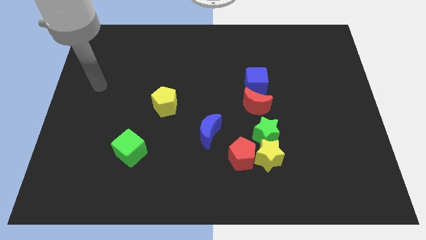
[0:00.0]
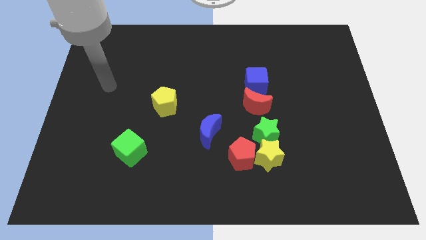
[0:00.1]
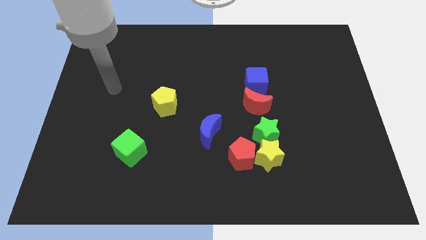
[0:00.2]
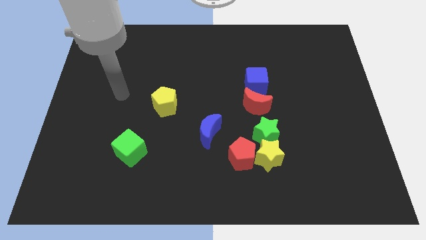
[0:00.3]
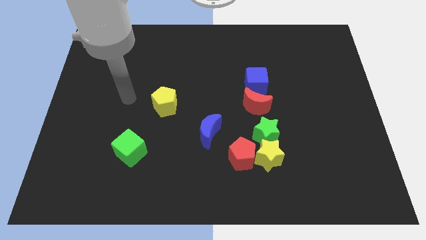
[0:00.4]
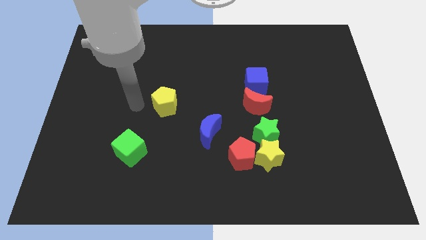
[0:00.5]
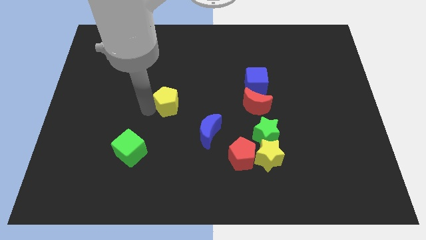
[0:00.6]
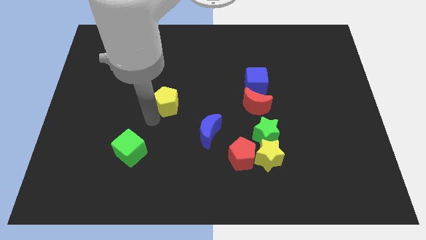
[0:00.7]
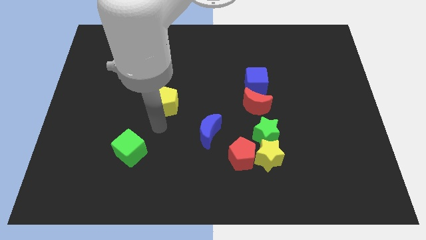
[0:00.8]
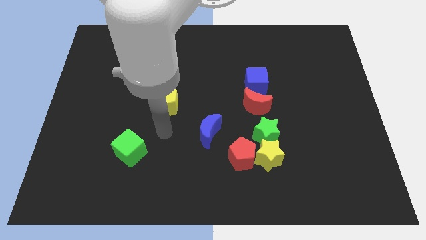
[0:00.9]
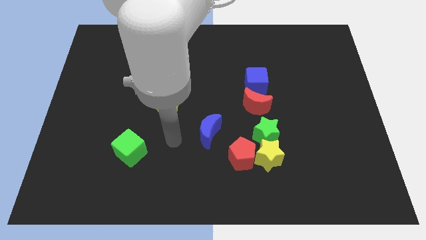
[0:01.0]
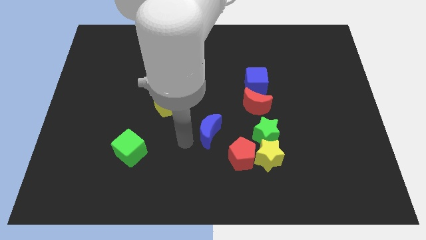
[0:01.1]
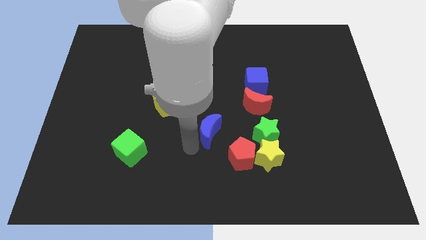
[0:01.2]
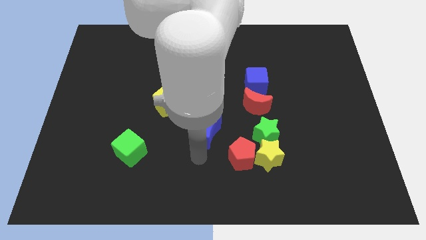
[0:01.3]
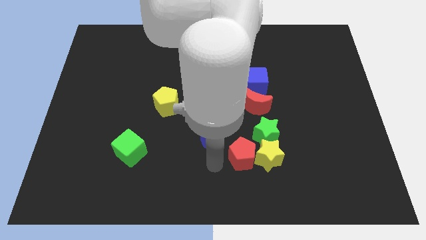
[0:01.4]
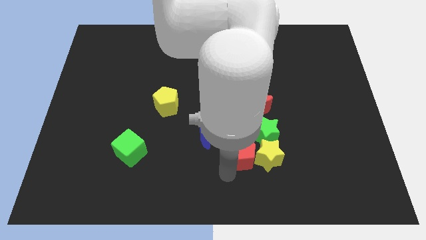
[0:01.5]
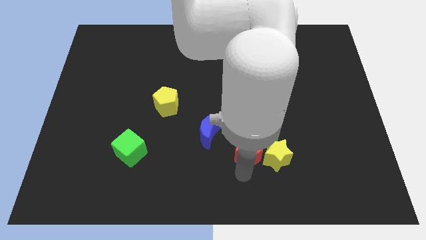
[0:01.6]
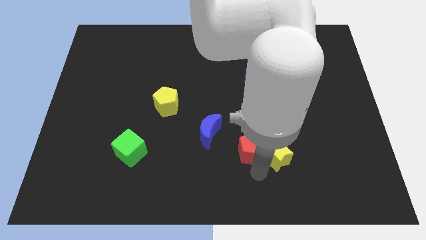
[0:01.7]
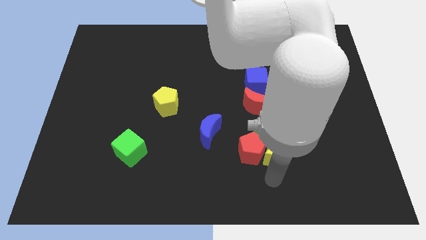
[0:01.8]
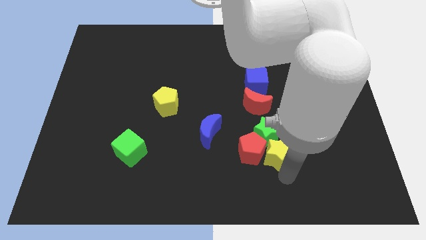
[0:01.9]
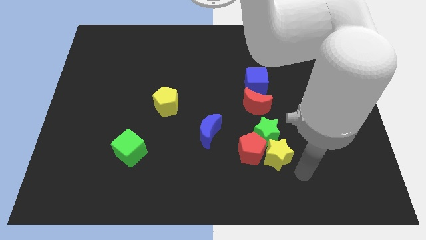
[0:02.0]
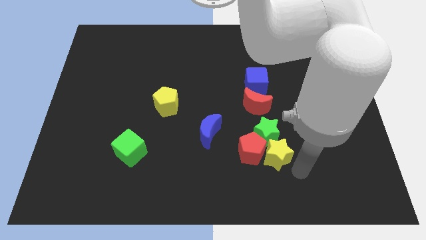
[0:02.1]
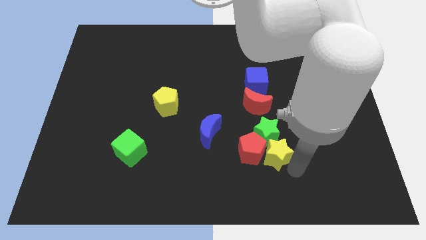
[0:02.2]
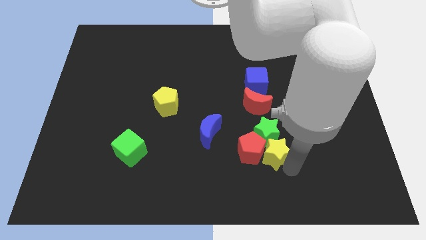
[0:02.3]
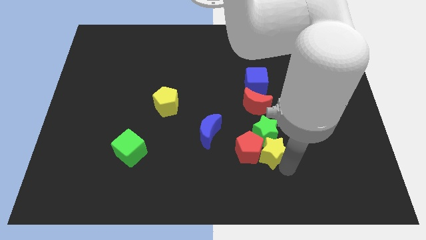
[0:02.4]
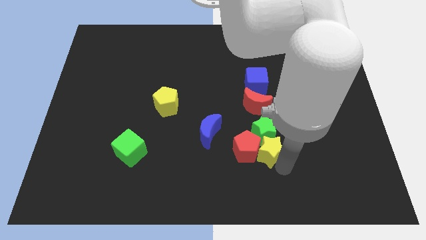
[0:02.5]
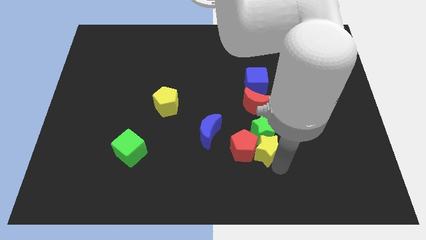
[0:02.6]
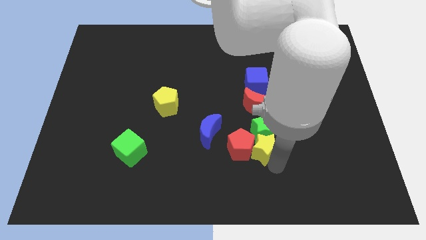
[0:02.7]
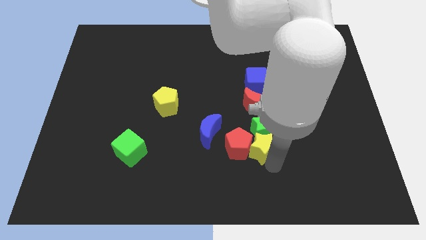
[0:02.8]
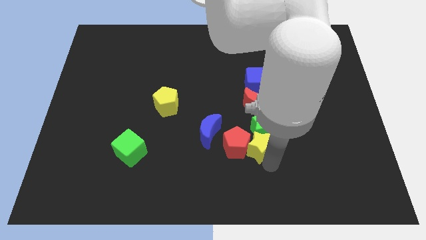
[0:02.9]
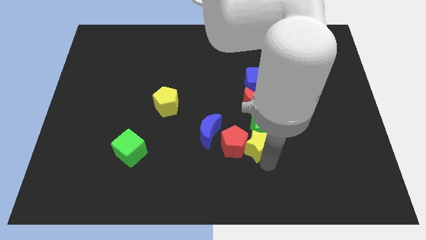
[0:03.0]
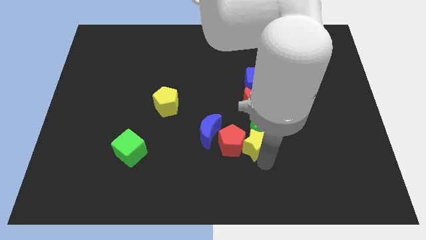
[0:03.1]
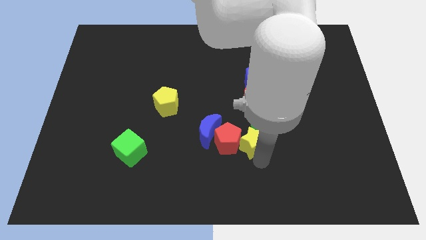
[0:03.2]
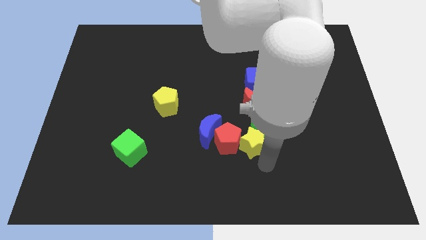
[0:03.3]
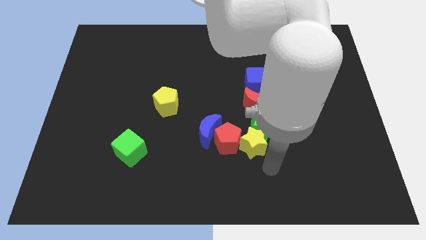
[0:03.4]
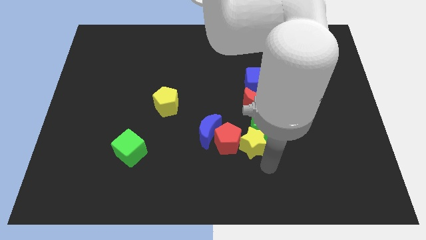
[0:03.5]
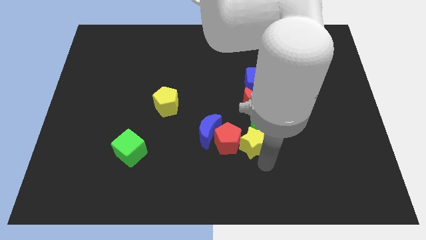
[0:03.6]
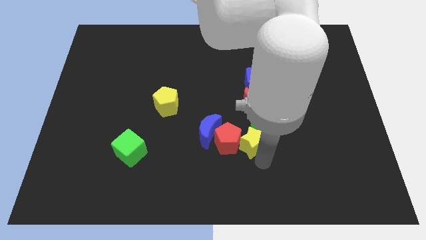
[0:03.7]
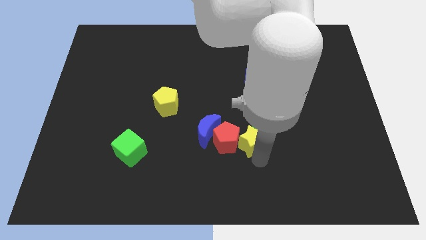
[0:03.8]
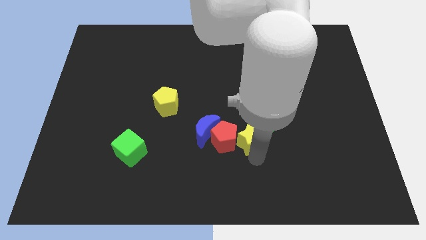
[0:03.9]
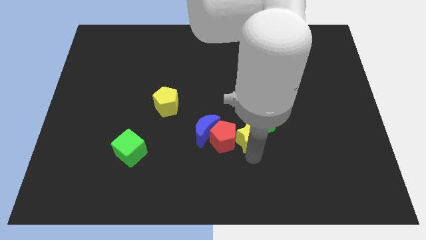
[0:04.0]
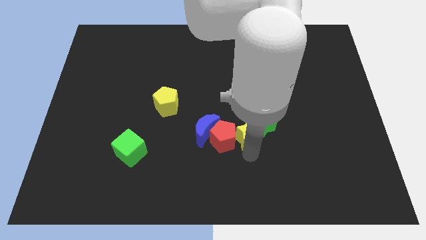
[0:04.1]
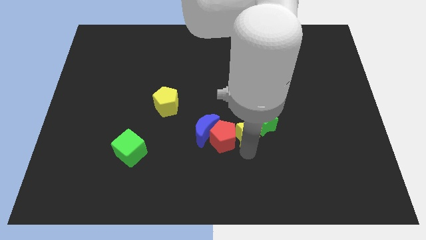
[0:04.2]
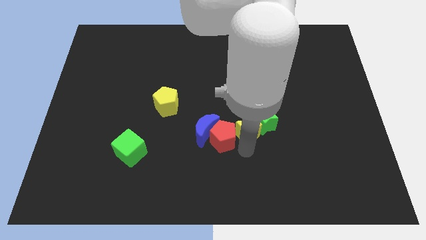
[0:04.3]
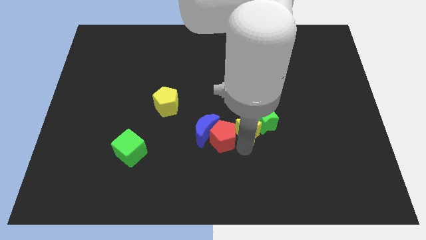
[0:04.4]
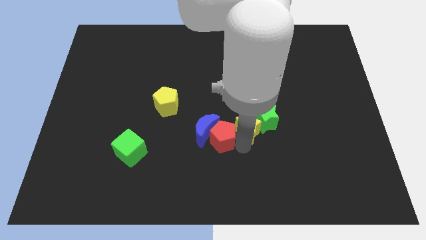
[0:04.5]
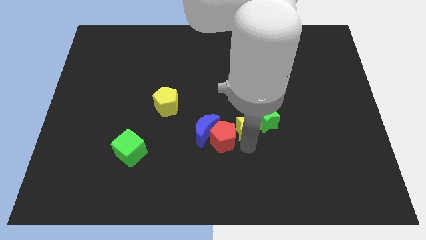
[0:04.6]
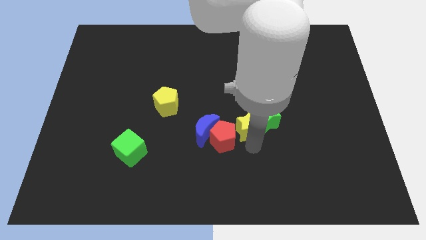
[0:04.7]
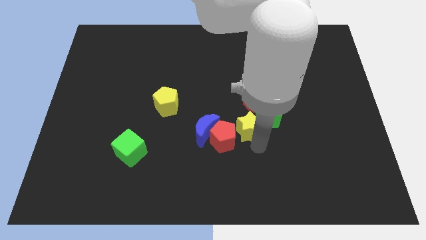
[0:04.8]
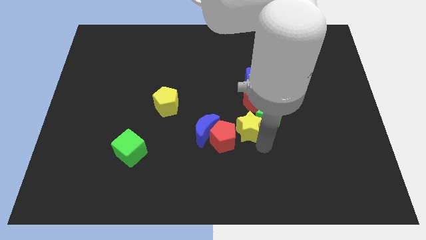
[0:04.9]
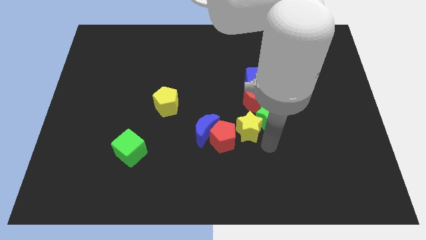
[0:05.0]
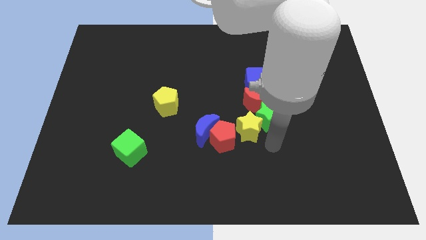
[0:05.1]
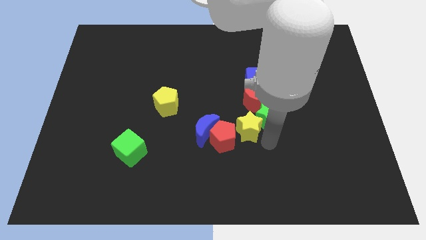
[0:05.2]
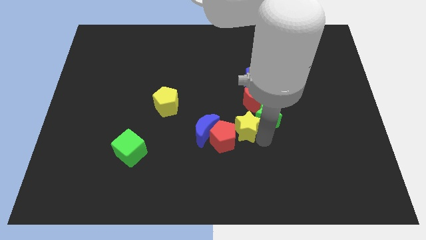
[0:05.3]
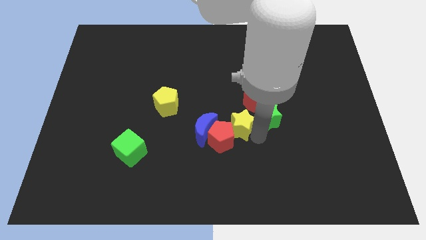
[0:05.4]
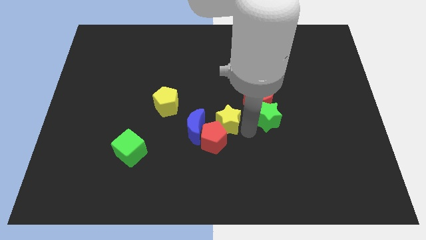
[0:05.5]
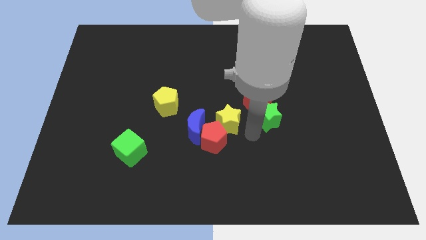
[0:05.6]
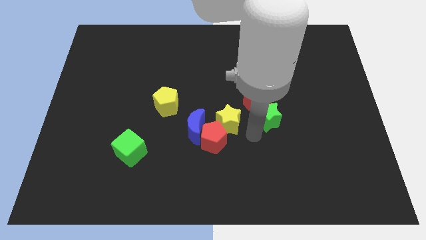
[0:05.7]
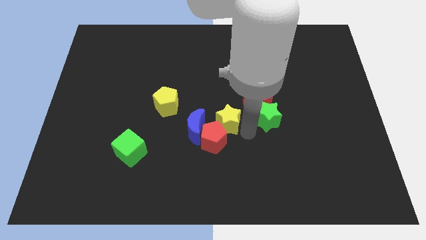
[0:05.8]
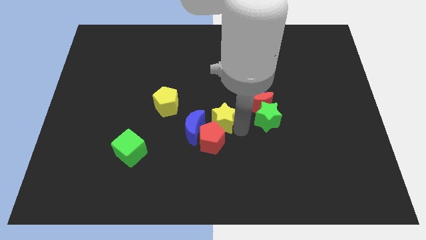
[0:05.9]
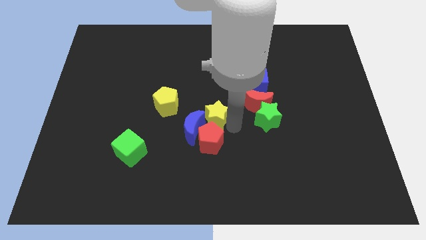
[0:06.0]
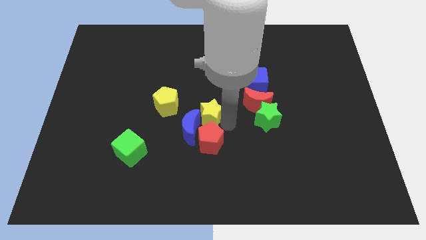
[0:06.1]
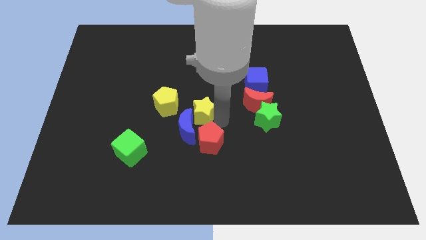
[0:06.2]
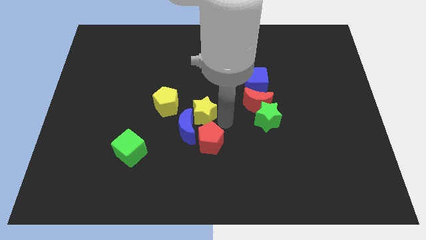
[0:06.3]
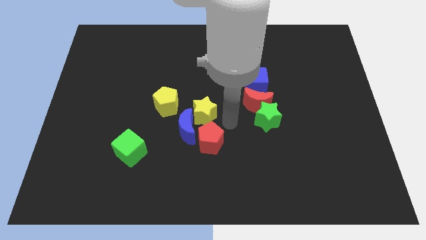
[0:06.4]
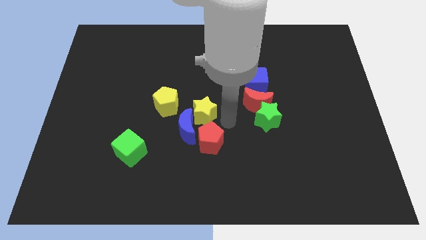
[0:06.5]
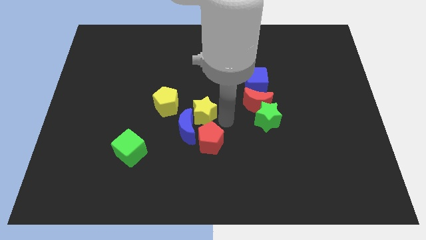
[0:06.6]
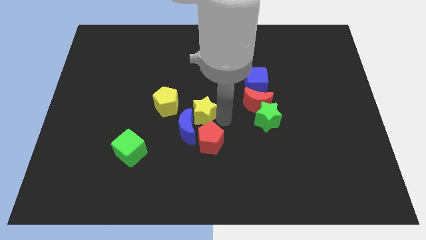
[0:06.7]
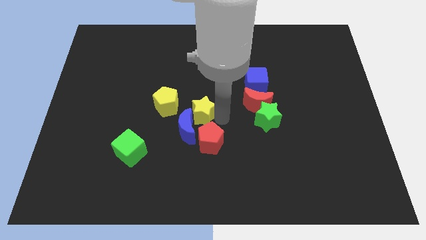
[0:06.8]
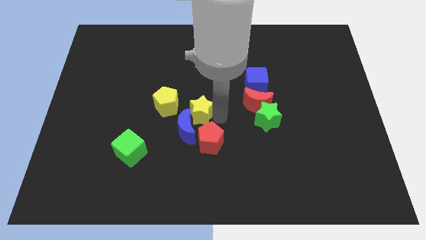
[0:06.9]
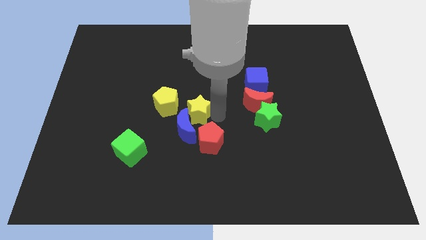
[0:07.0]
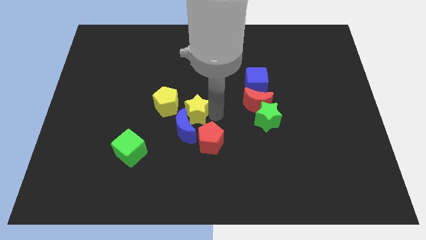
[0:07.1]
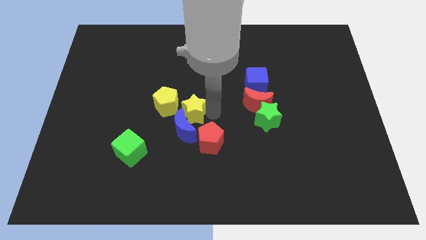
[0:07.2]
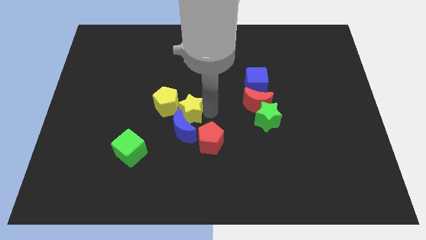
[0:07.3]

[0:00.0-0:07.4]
slide the yellow star to the yellow pentagon

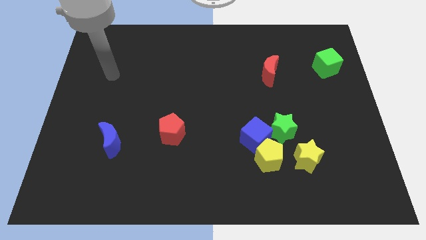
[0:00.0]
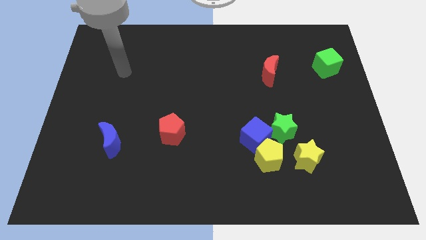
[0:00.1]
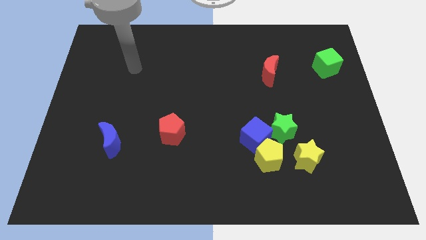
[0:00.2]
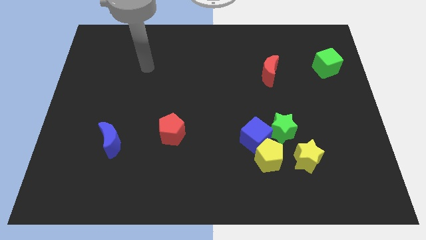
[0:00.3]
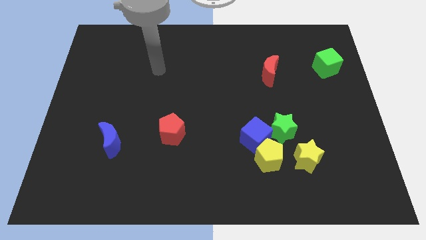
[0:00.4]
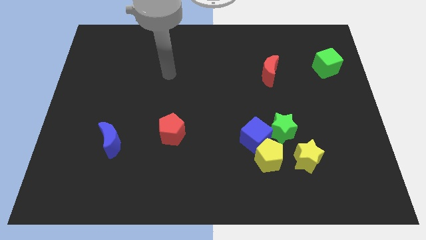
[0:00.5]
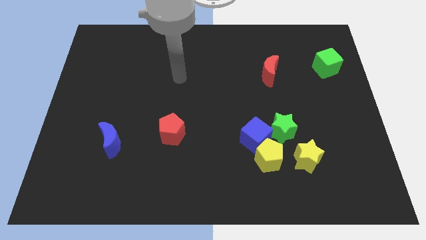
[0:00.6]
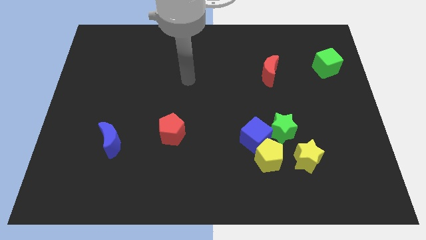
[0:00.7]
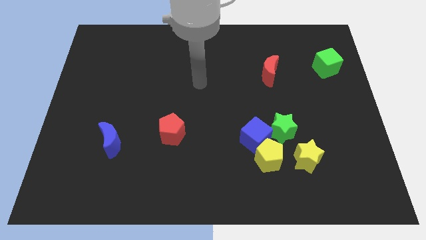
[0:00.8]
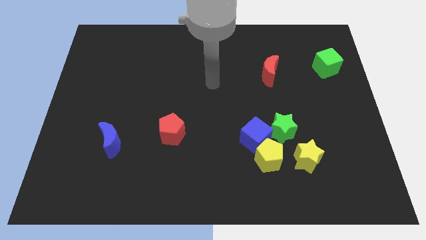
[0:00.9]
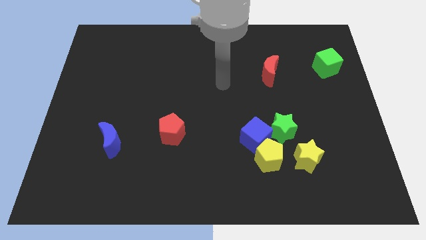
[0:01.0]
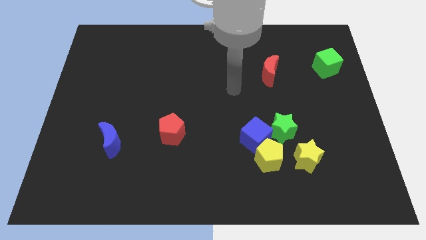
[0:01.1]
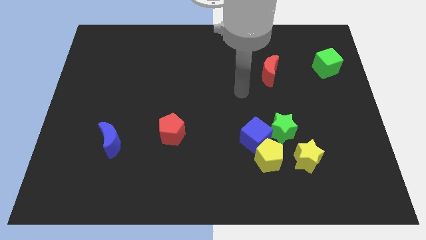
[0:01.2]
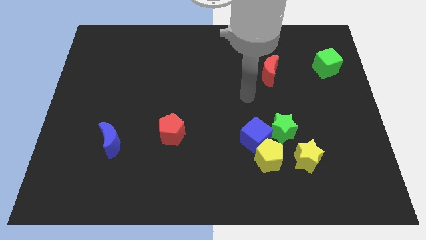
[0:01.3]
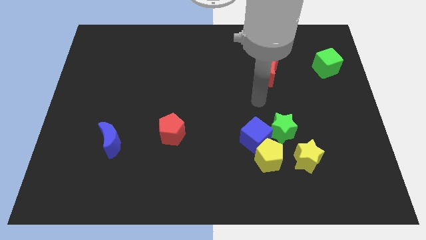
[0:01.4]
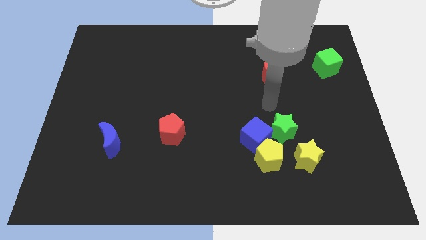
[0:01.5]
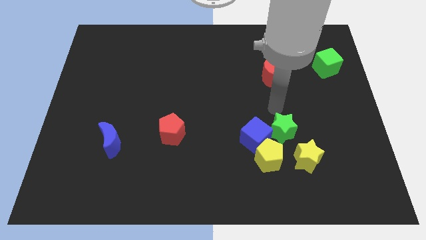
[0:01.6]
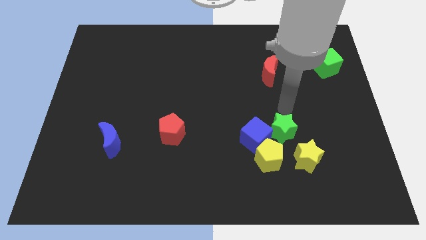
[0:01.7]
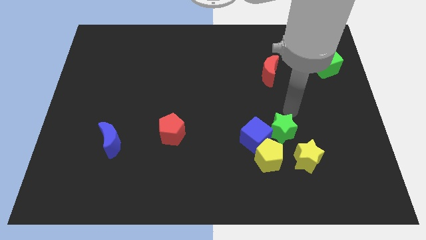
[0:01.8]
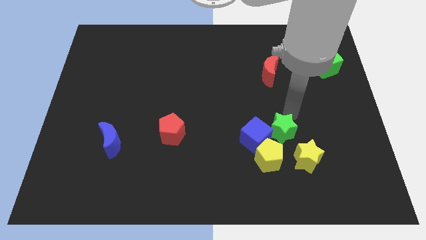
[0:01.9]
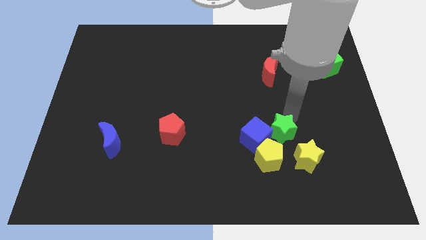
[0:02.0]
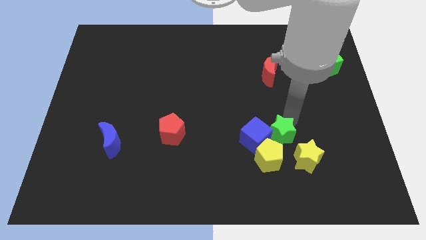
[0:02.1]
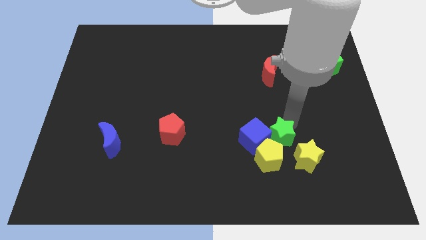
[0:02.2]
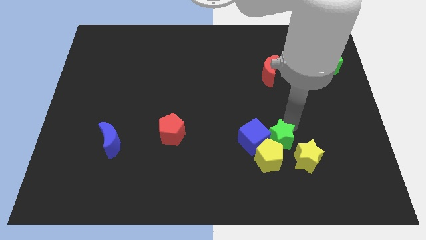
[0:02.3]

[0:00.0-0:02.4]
push the green star close to the yellow pentagon
